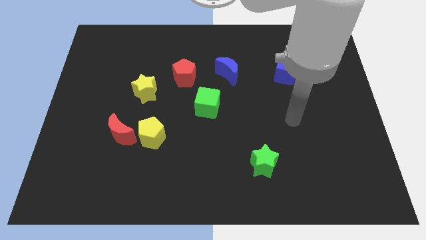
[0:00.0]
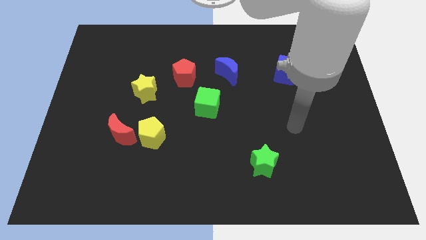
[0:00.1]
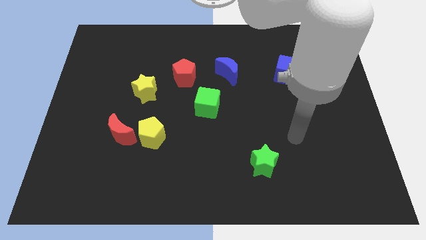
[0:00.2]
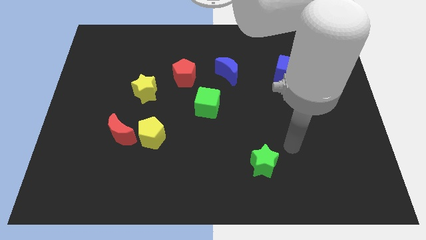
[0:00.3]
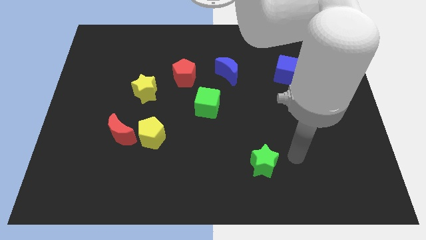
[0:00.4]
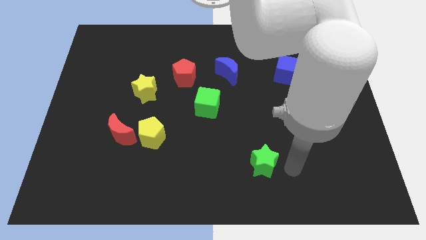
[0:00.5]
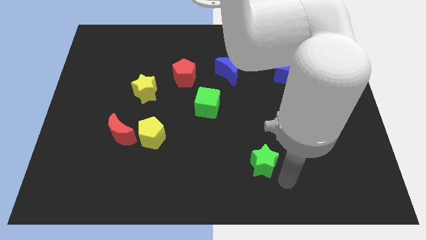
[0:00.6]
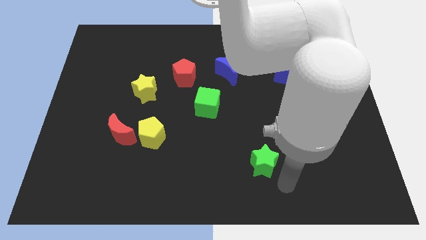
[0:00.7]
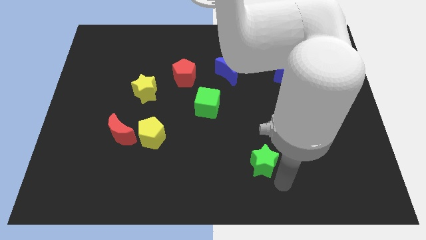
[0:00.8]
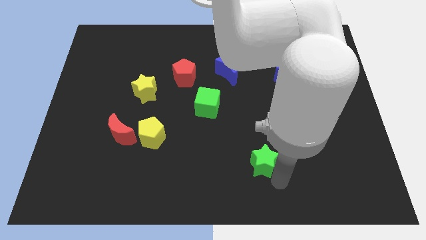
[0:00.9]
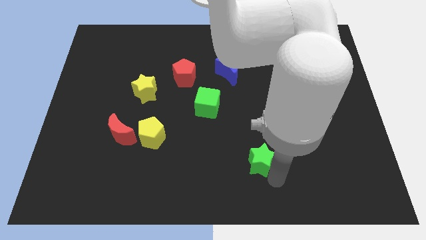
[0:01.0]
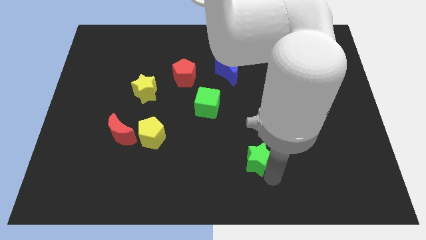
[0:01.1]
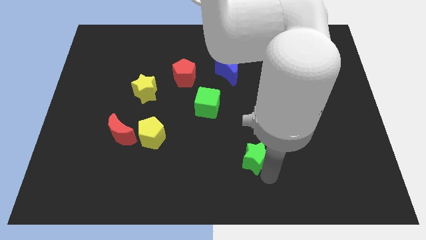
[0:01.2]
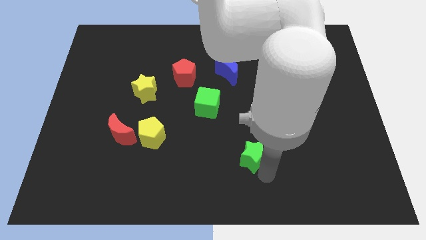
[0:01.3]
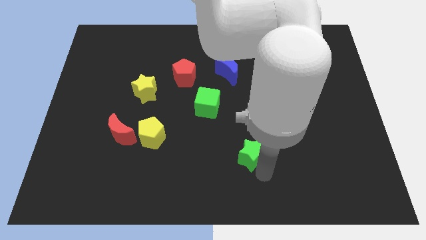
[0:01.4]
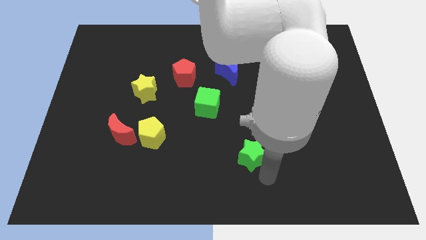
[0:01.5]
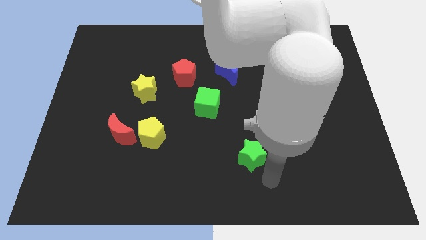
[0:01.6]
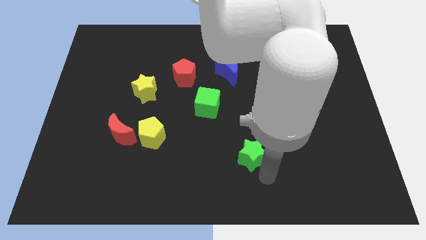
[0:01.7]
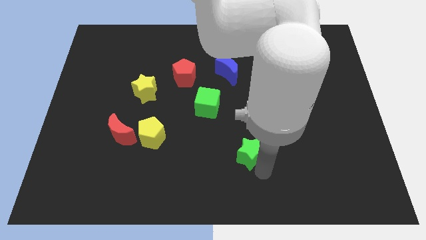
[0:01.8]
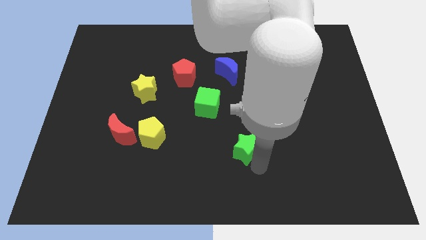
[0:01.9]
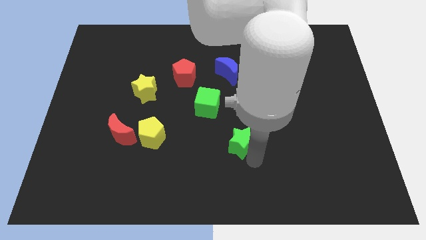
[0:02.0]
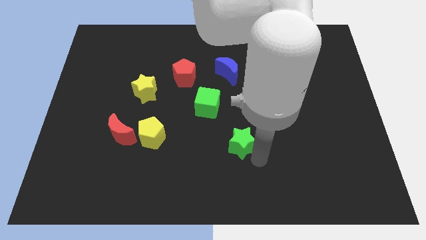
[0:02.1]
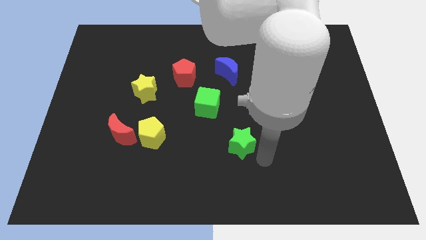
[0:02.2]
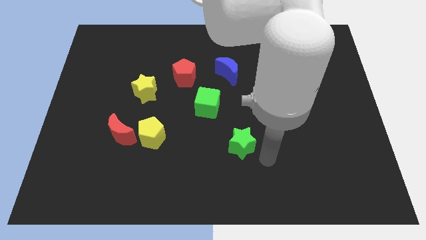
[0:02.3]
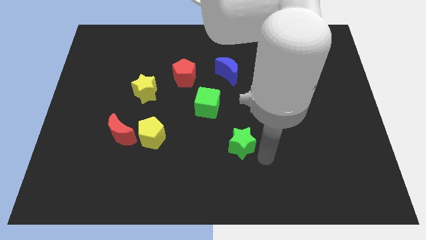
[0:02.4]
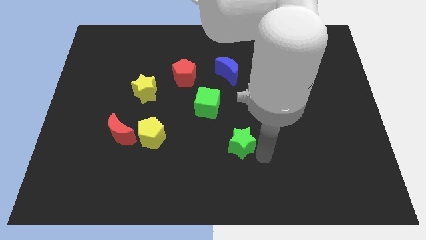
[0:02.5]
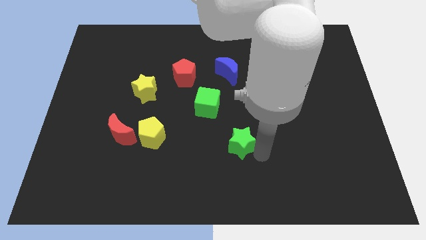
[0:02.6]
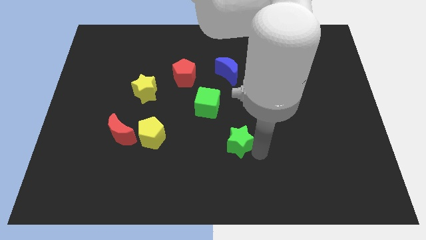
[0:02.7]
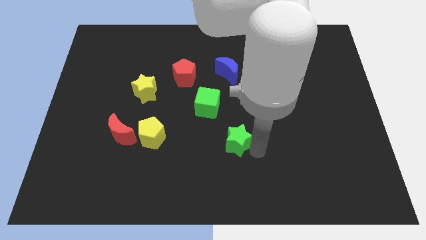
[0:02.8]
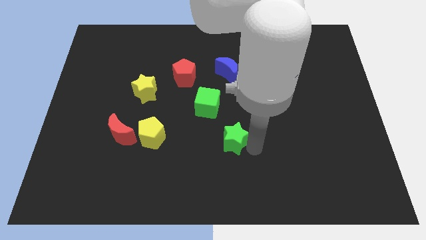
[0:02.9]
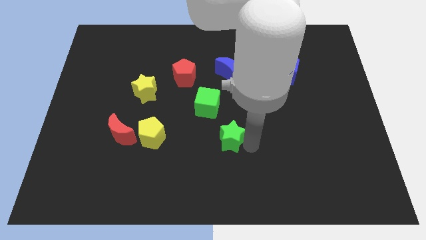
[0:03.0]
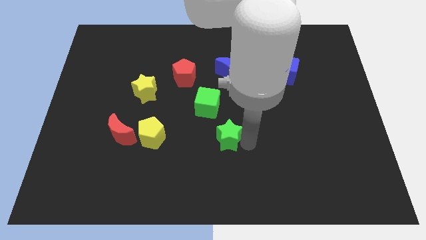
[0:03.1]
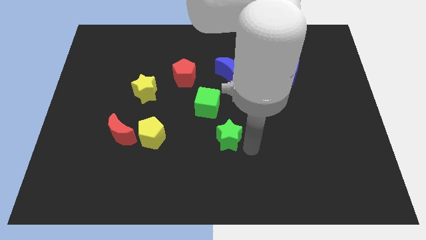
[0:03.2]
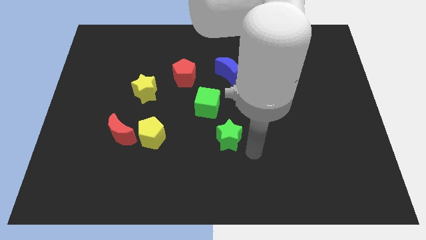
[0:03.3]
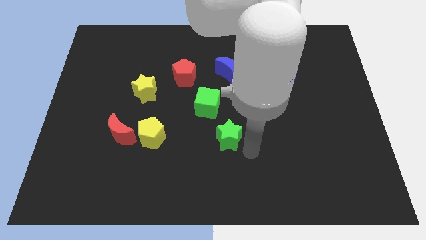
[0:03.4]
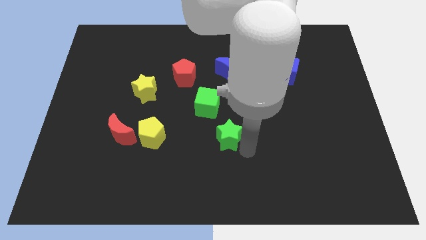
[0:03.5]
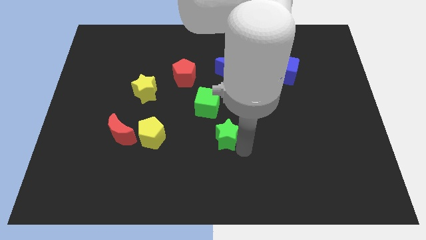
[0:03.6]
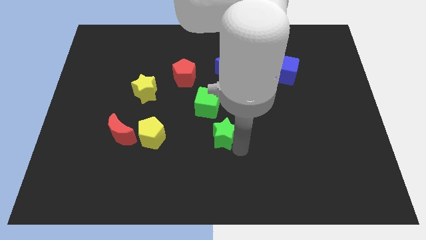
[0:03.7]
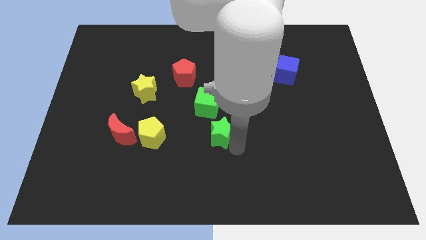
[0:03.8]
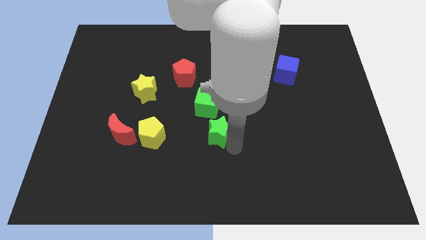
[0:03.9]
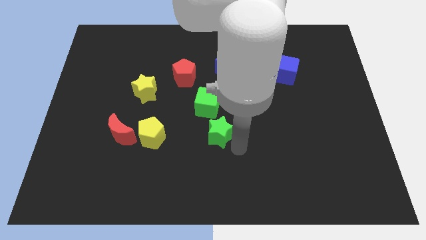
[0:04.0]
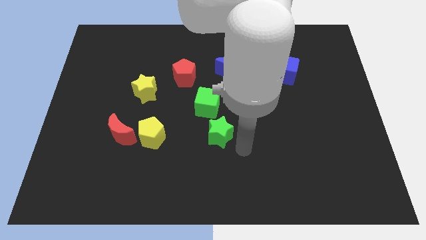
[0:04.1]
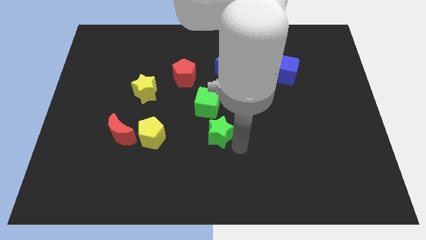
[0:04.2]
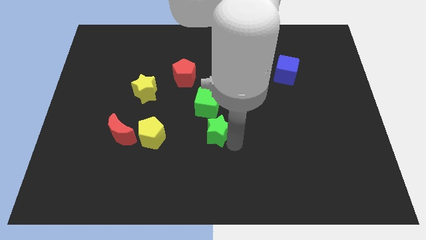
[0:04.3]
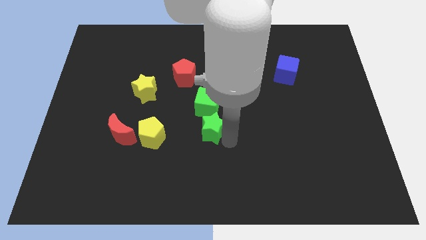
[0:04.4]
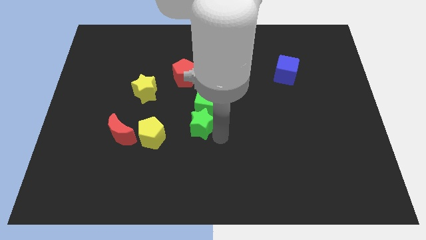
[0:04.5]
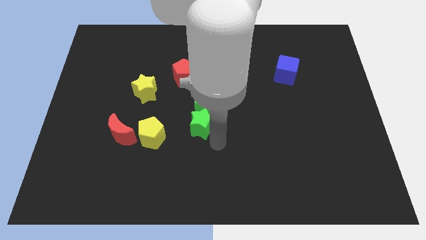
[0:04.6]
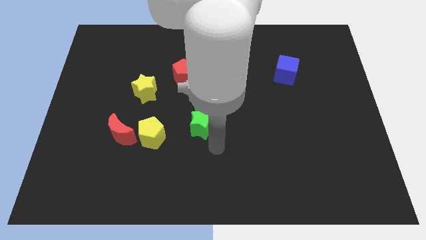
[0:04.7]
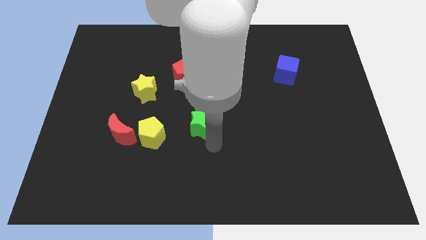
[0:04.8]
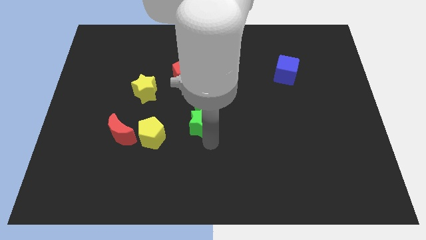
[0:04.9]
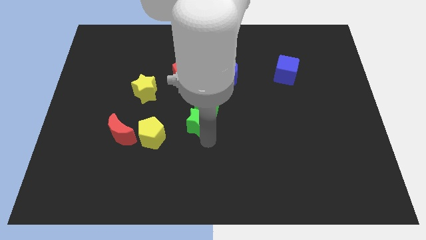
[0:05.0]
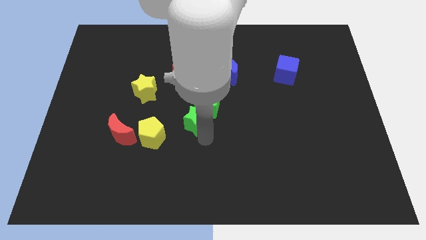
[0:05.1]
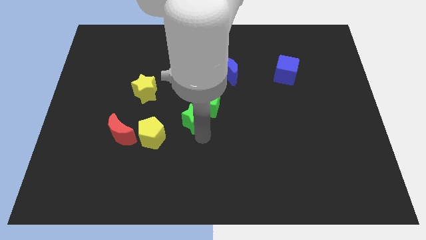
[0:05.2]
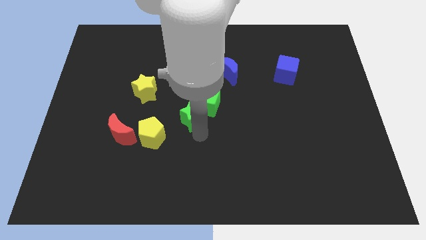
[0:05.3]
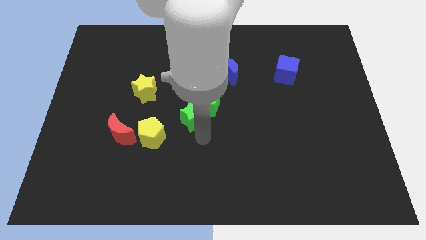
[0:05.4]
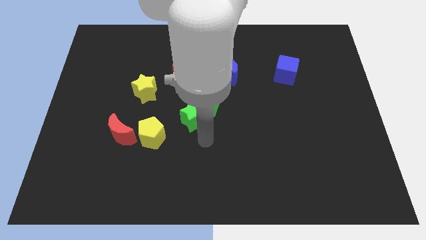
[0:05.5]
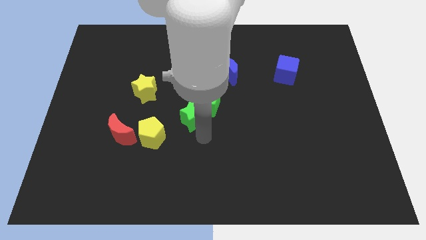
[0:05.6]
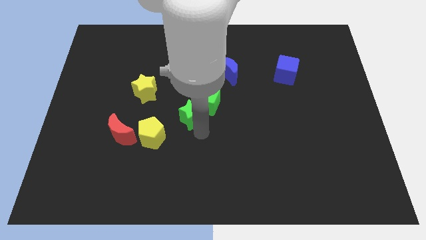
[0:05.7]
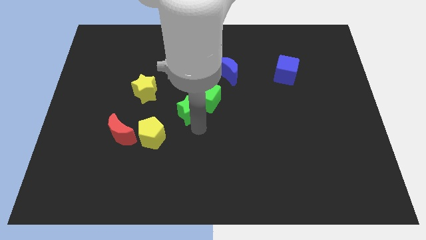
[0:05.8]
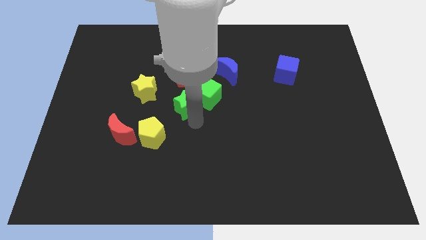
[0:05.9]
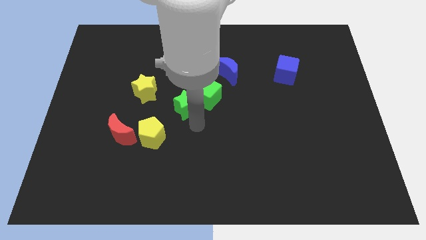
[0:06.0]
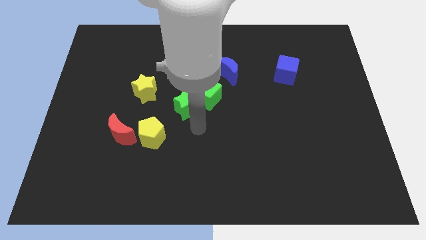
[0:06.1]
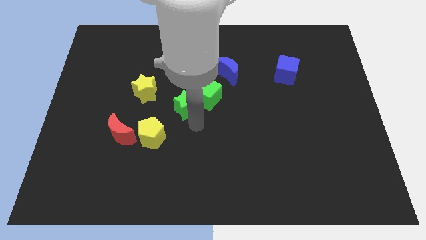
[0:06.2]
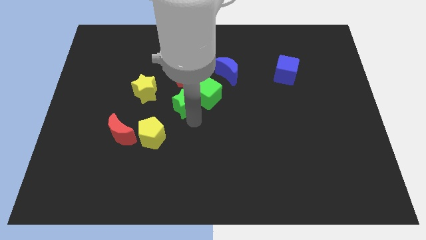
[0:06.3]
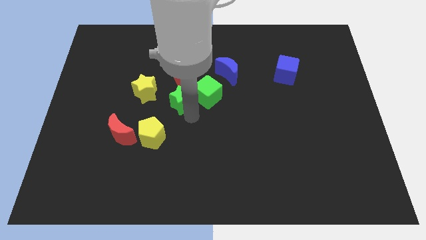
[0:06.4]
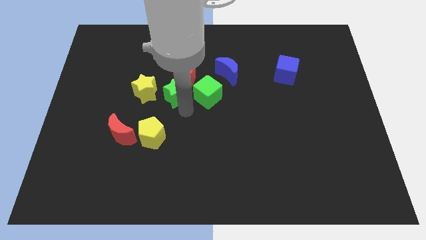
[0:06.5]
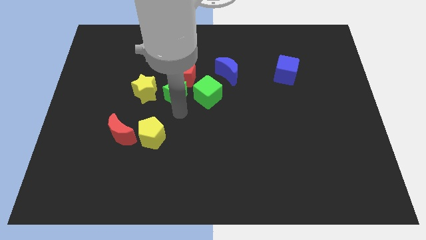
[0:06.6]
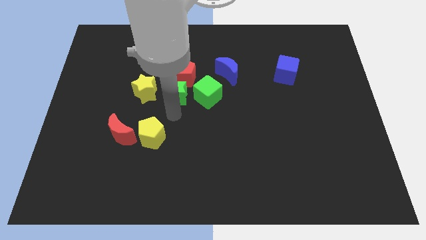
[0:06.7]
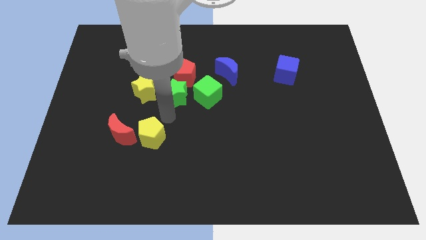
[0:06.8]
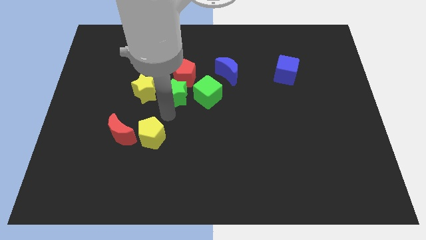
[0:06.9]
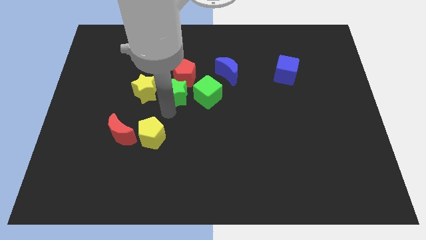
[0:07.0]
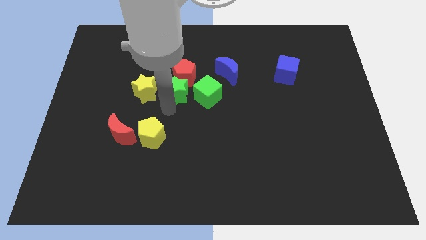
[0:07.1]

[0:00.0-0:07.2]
push the green star towards the red pentagon
